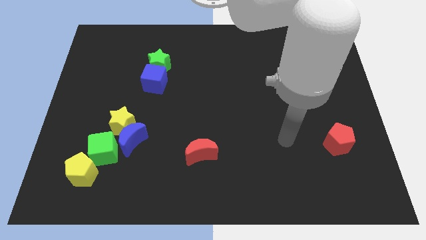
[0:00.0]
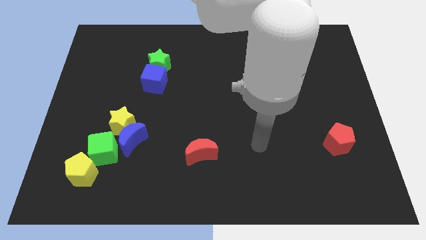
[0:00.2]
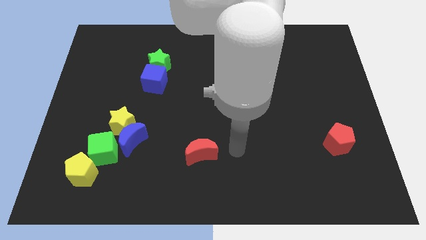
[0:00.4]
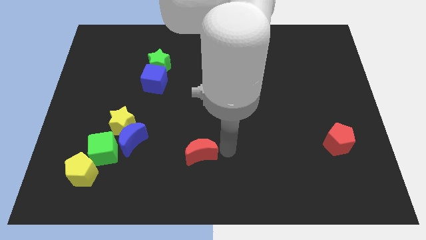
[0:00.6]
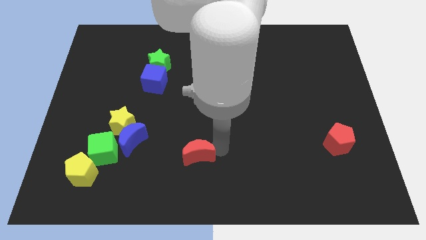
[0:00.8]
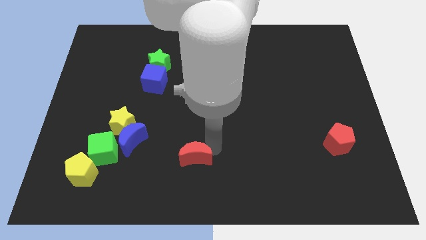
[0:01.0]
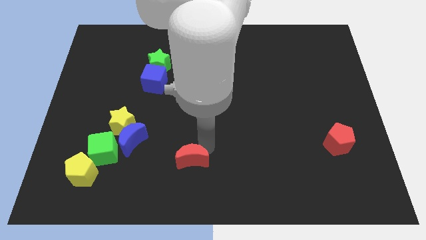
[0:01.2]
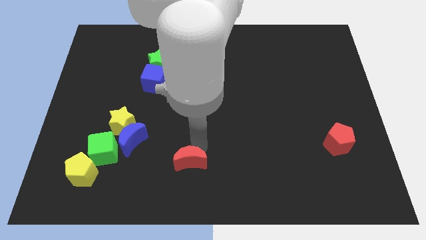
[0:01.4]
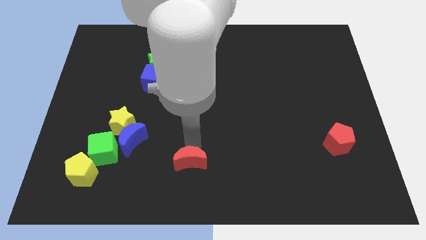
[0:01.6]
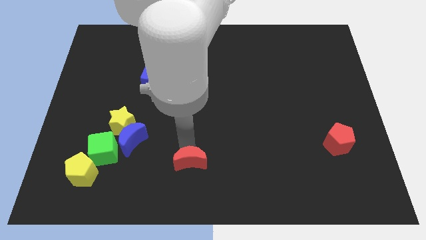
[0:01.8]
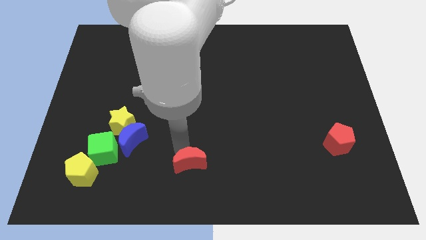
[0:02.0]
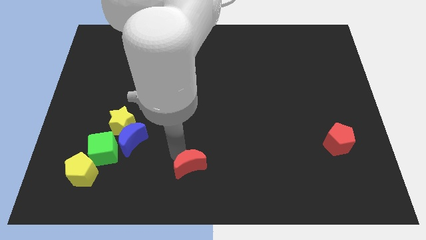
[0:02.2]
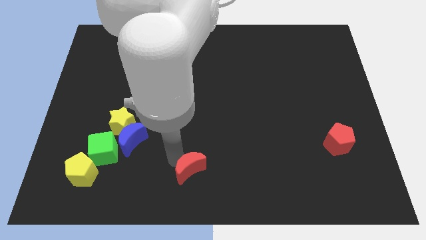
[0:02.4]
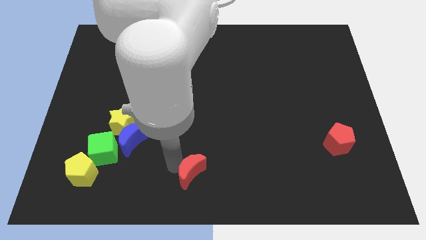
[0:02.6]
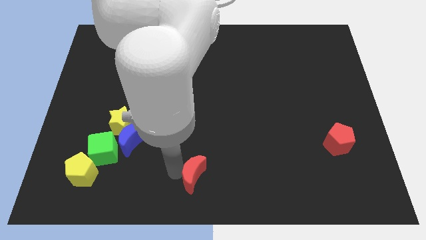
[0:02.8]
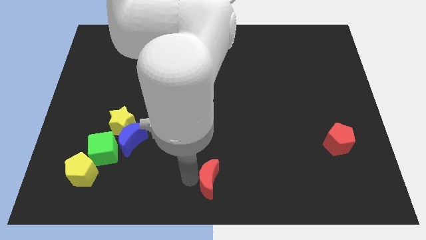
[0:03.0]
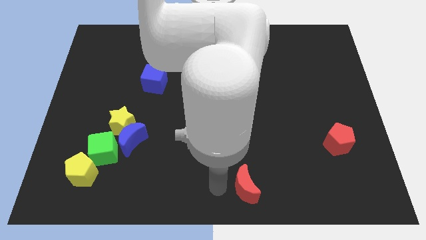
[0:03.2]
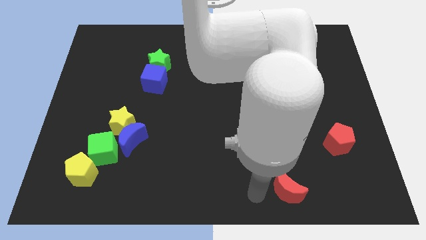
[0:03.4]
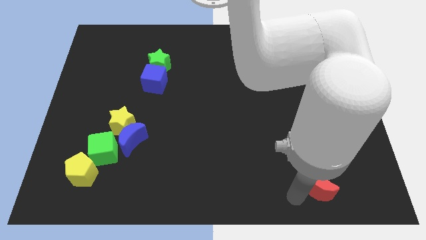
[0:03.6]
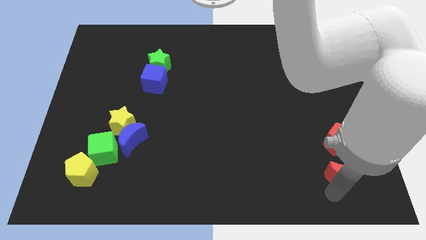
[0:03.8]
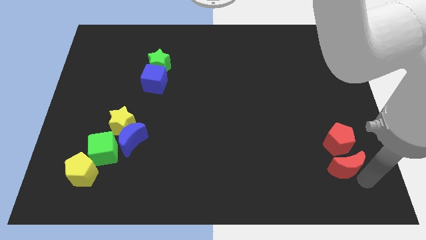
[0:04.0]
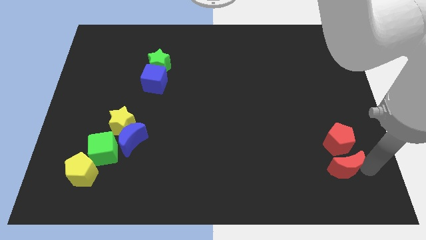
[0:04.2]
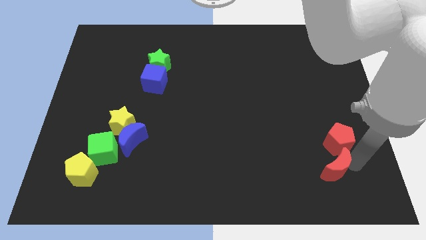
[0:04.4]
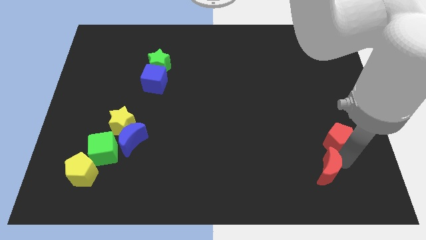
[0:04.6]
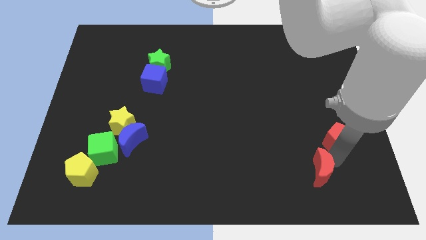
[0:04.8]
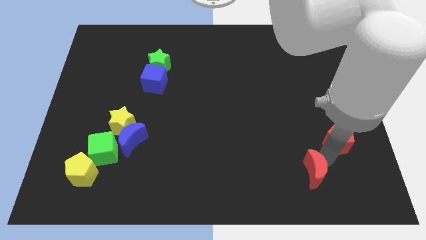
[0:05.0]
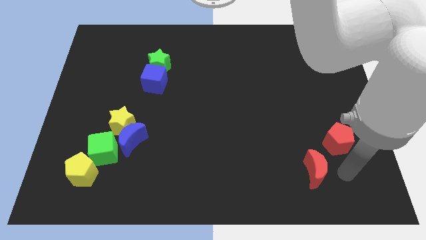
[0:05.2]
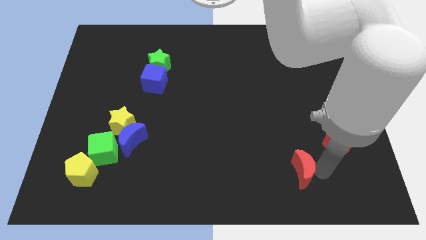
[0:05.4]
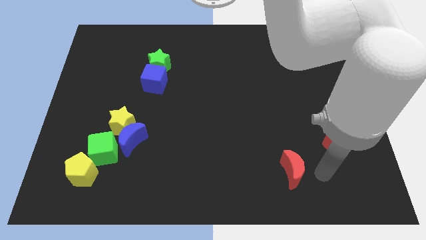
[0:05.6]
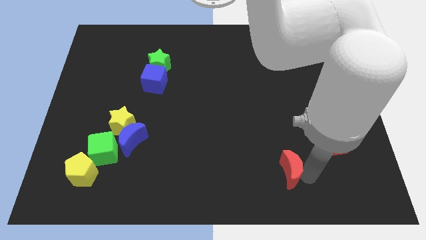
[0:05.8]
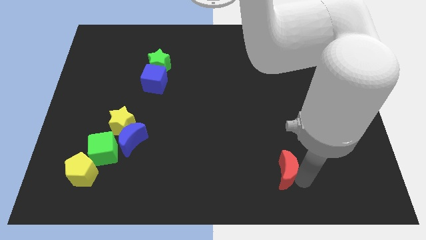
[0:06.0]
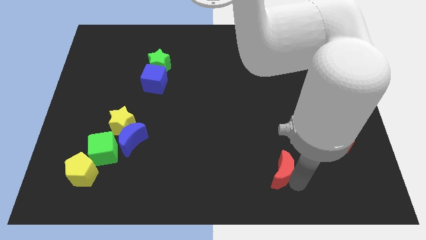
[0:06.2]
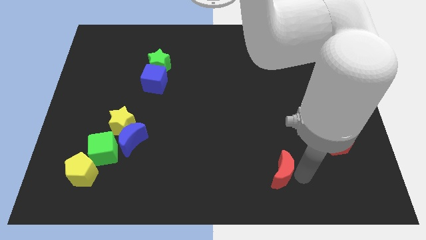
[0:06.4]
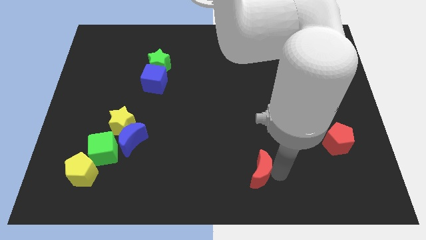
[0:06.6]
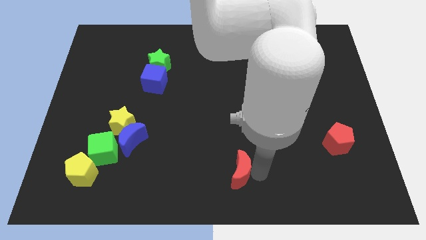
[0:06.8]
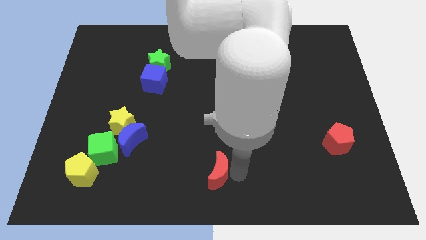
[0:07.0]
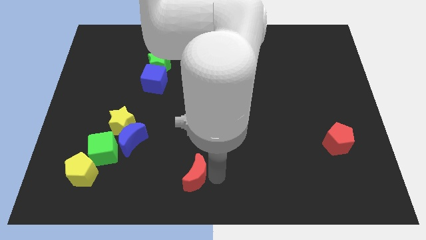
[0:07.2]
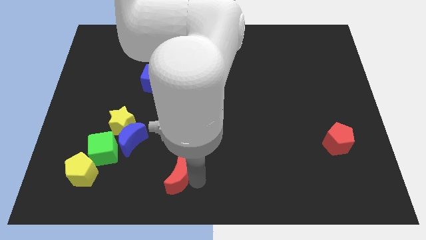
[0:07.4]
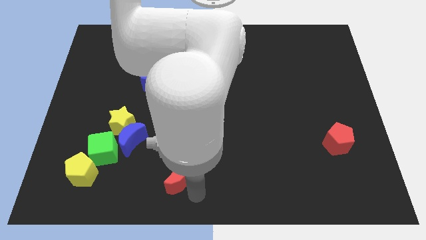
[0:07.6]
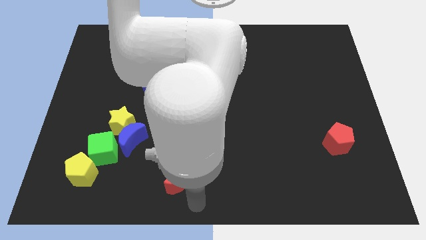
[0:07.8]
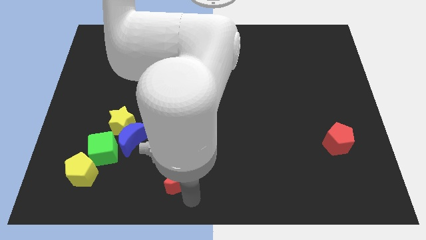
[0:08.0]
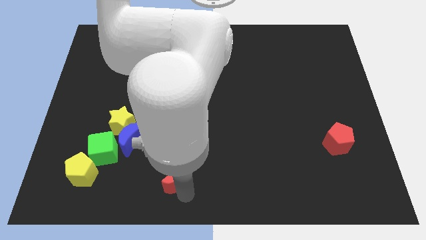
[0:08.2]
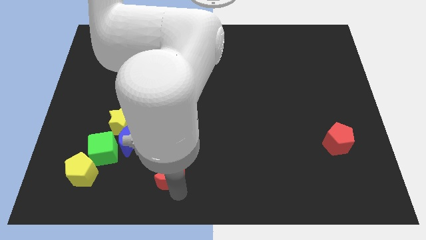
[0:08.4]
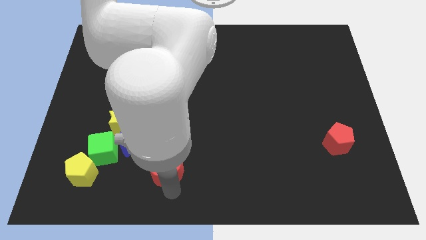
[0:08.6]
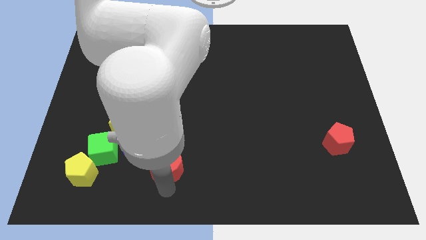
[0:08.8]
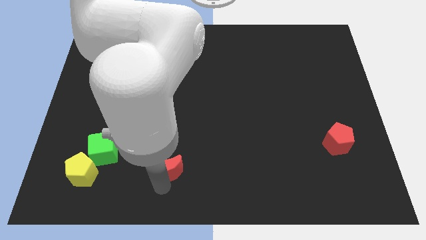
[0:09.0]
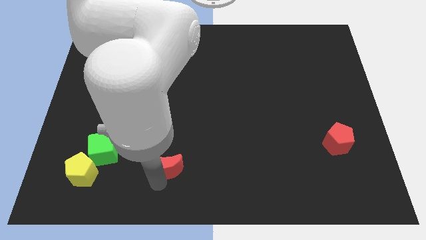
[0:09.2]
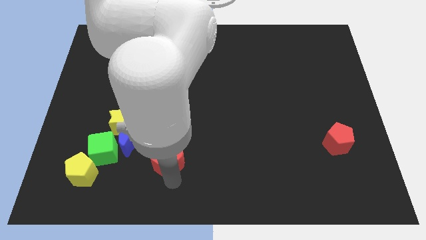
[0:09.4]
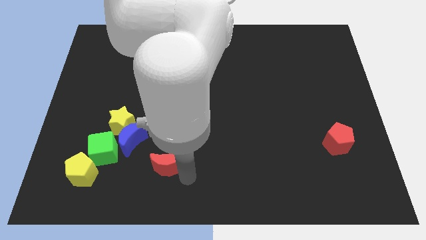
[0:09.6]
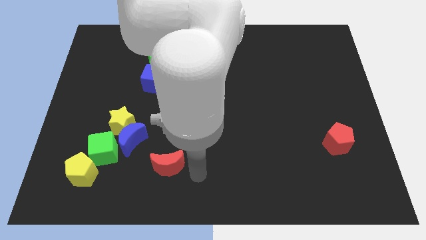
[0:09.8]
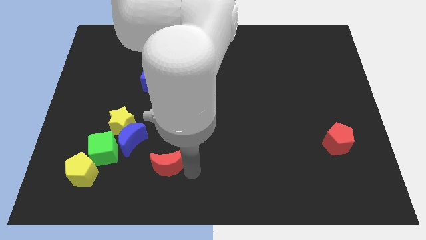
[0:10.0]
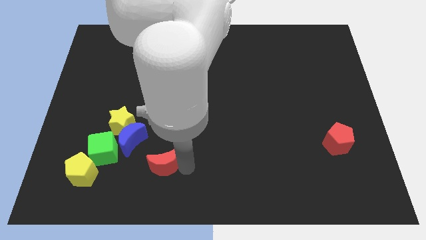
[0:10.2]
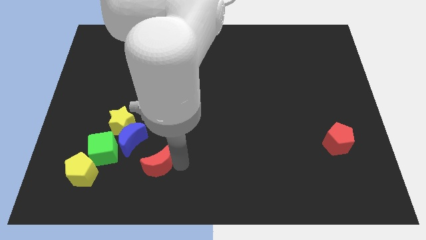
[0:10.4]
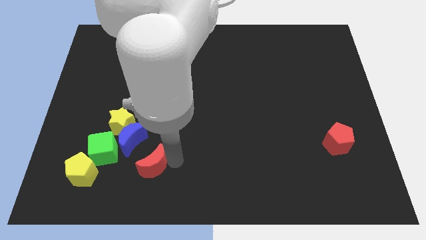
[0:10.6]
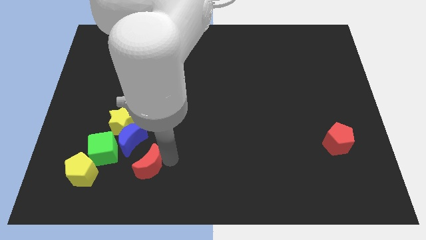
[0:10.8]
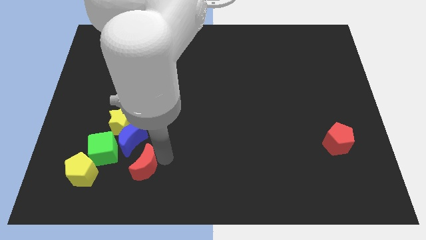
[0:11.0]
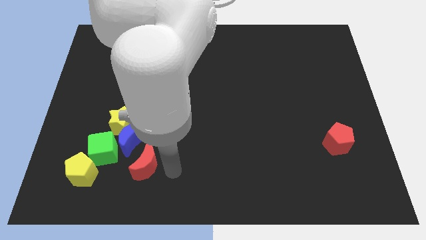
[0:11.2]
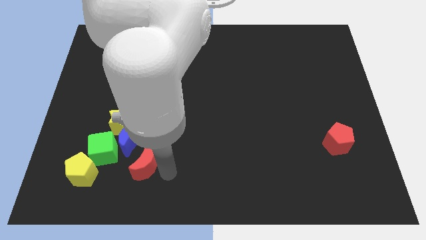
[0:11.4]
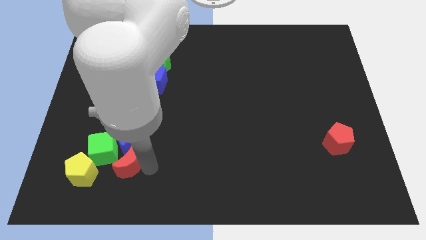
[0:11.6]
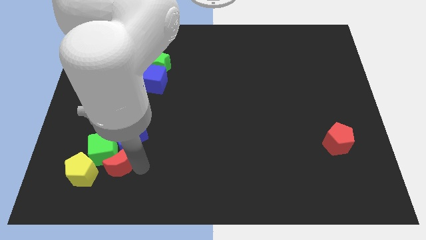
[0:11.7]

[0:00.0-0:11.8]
slide the red moon next to the green cube

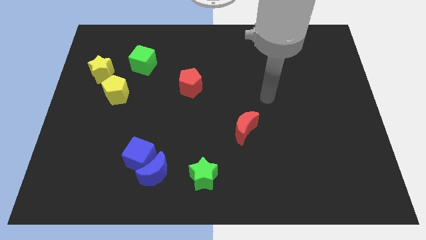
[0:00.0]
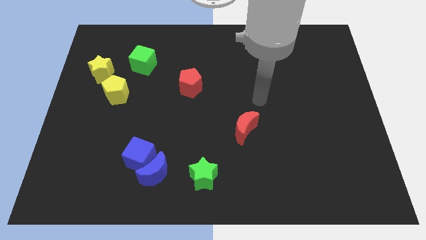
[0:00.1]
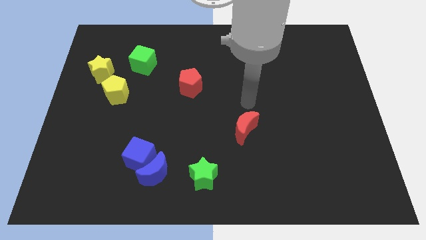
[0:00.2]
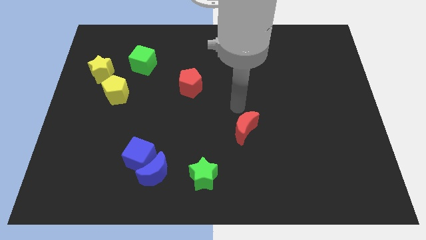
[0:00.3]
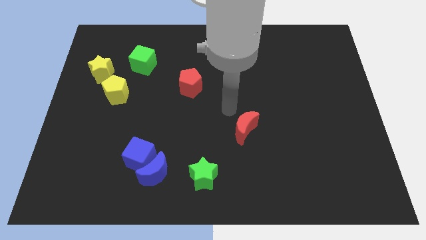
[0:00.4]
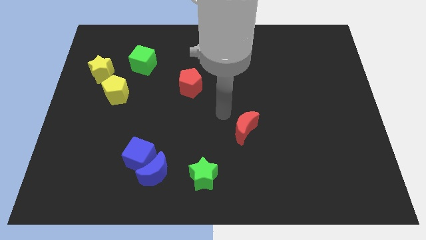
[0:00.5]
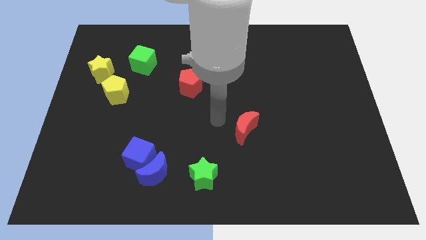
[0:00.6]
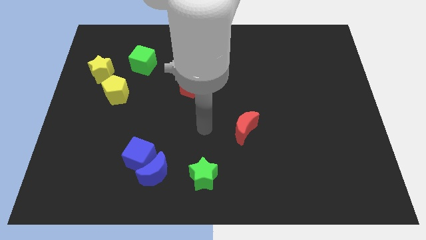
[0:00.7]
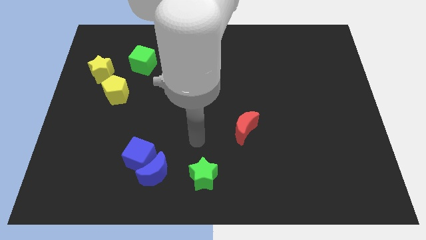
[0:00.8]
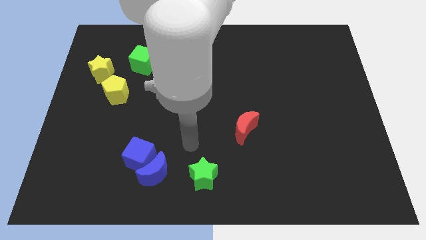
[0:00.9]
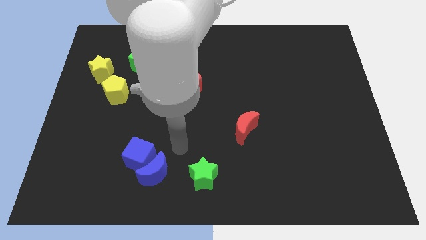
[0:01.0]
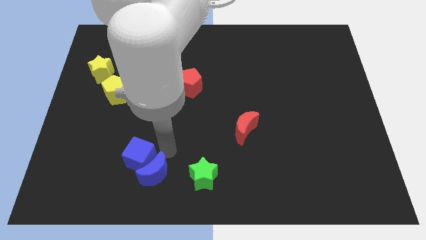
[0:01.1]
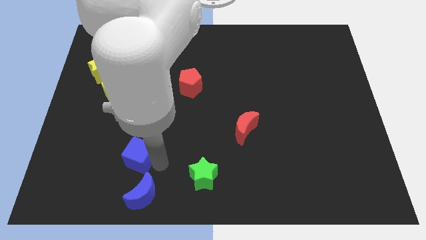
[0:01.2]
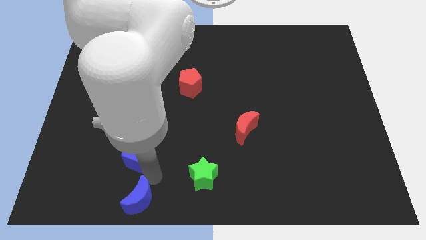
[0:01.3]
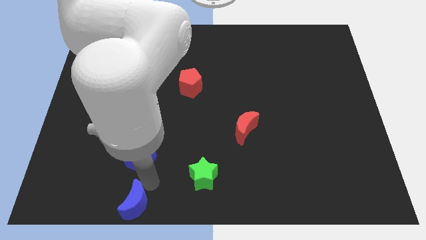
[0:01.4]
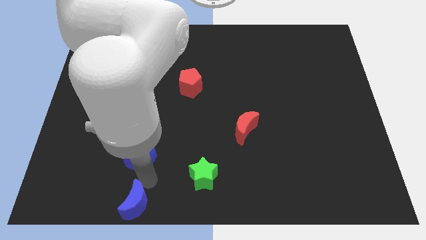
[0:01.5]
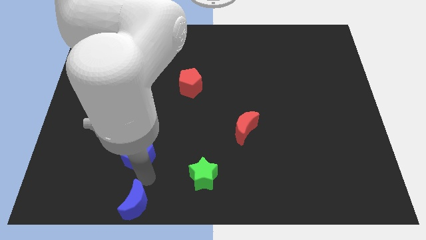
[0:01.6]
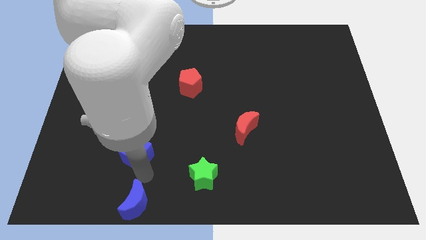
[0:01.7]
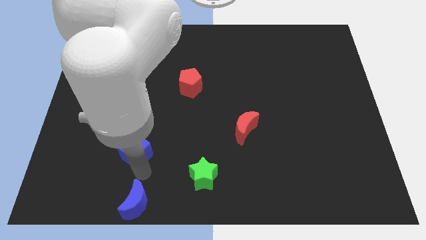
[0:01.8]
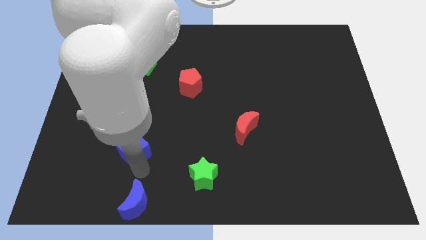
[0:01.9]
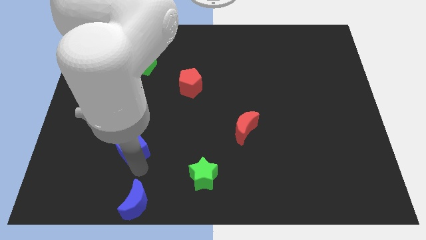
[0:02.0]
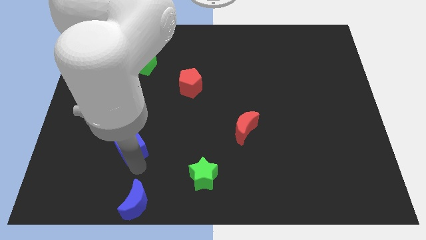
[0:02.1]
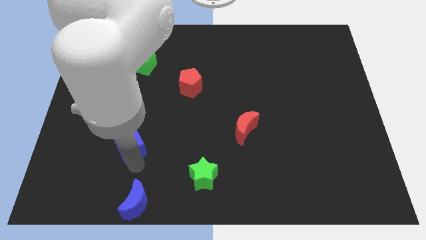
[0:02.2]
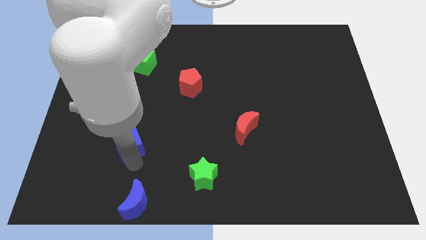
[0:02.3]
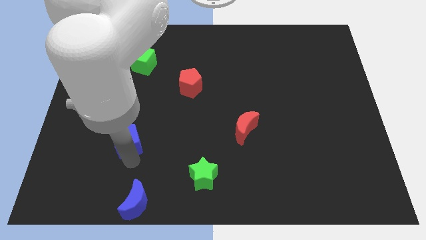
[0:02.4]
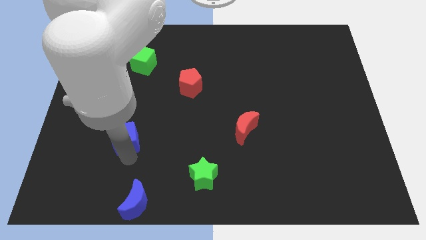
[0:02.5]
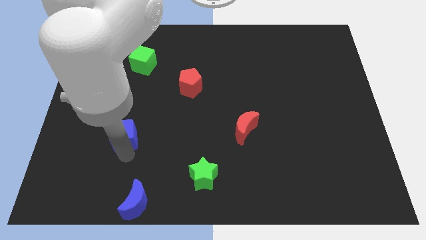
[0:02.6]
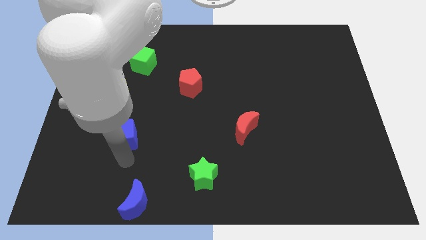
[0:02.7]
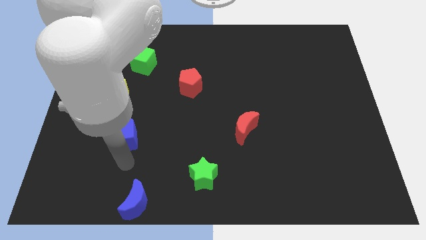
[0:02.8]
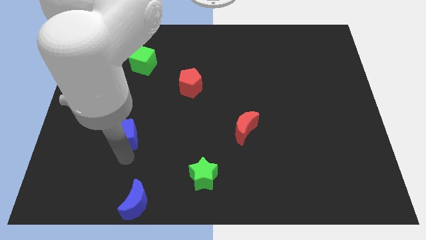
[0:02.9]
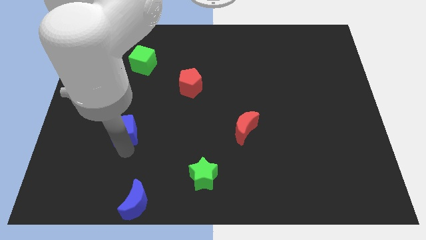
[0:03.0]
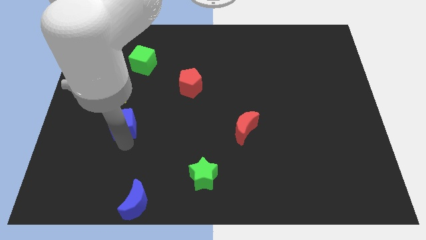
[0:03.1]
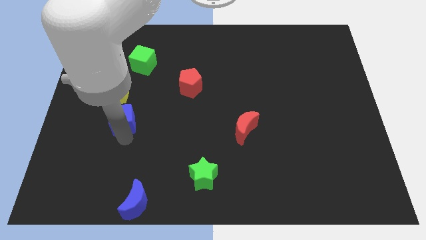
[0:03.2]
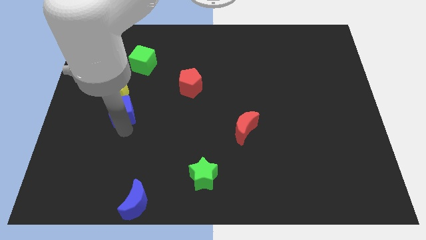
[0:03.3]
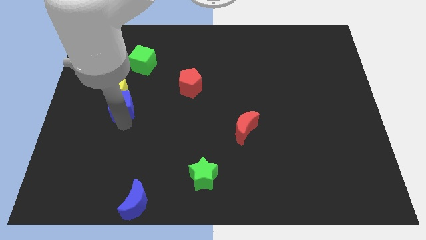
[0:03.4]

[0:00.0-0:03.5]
push the blue cube next to the yellow pentagon
